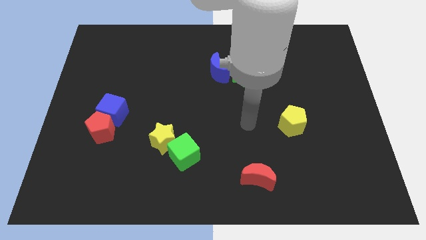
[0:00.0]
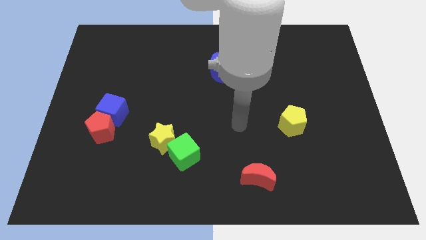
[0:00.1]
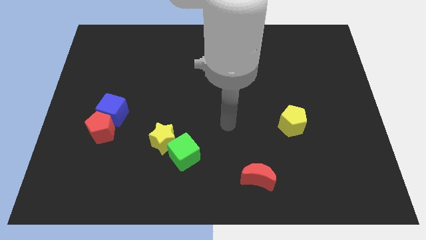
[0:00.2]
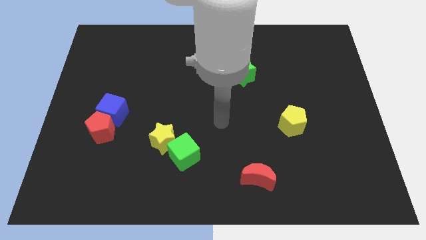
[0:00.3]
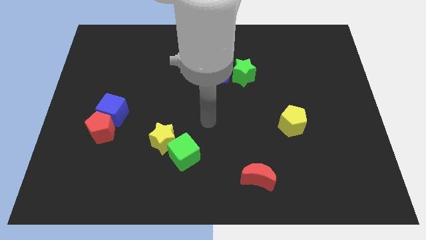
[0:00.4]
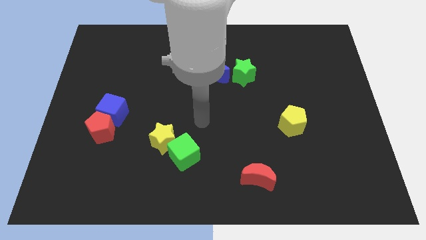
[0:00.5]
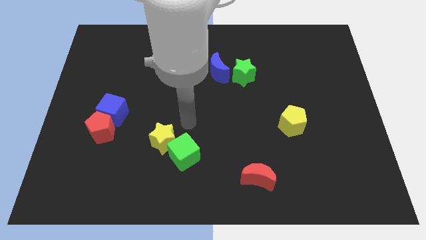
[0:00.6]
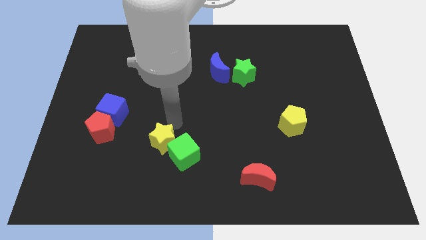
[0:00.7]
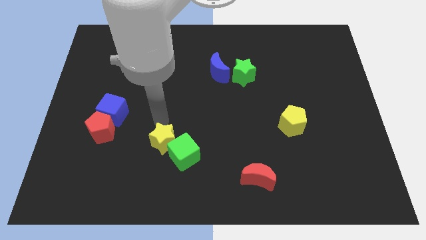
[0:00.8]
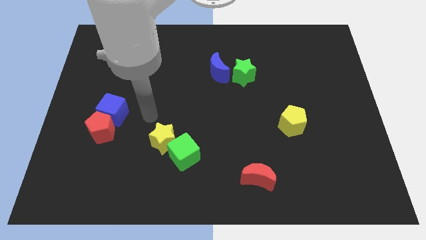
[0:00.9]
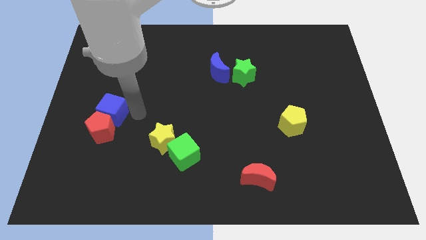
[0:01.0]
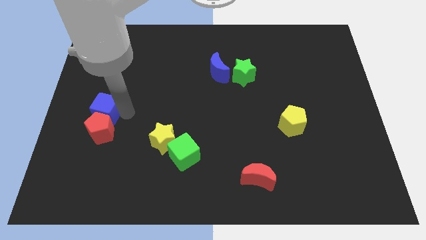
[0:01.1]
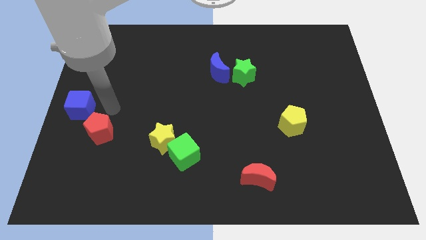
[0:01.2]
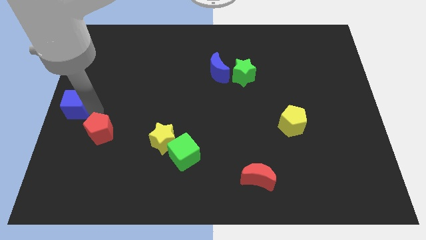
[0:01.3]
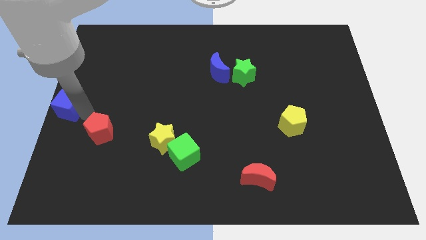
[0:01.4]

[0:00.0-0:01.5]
move the red pentagon away from the blue cube

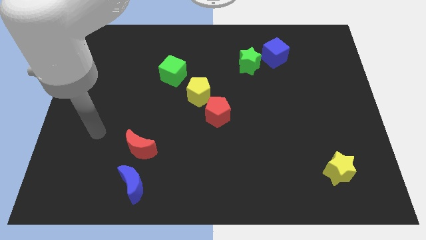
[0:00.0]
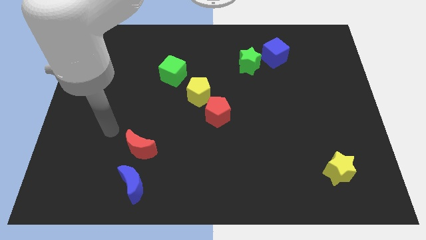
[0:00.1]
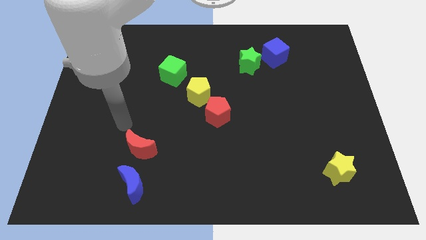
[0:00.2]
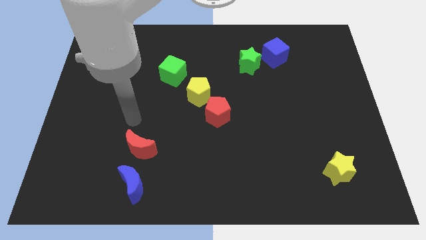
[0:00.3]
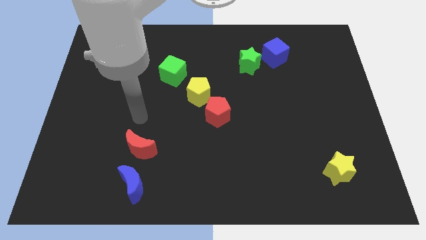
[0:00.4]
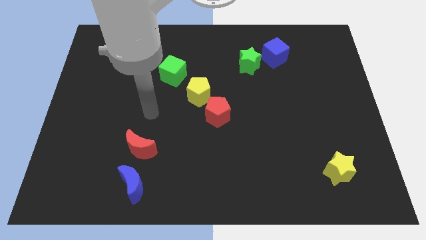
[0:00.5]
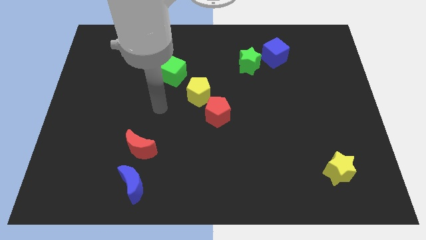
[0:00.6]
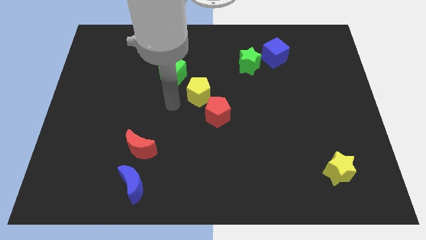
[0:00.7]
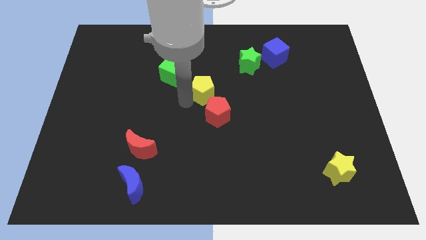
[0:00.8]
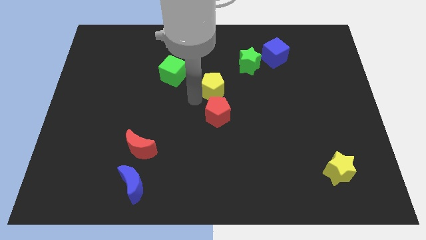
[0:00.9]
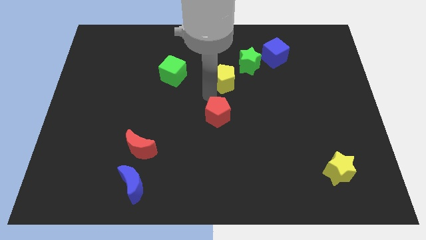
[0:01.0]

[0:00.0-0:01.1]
pull the red pentagon apart from the yellow pentagon

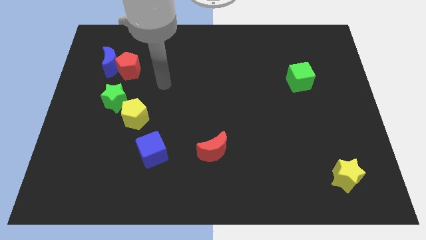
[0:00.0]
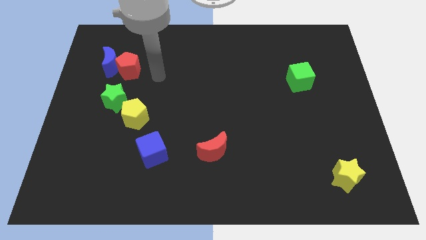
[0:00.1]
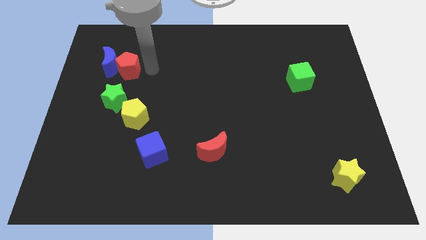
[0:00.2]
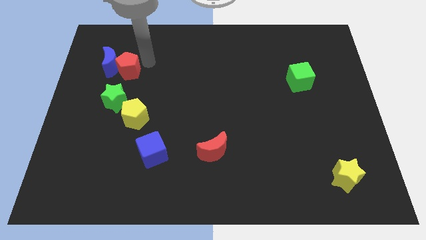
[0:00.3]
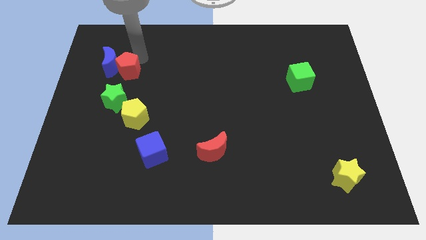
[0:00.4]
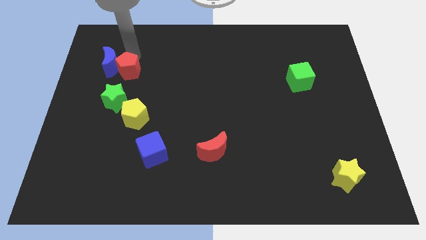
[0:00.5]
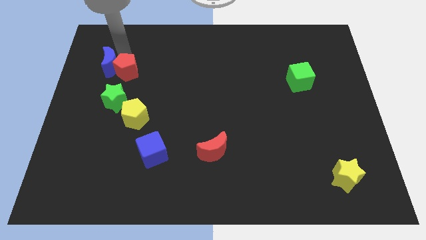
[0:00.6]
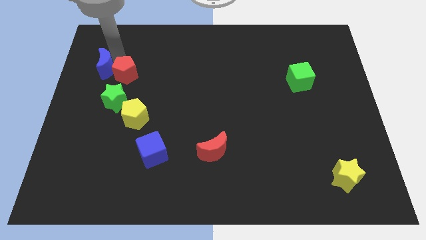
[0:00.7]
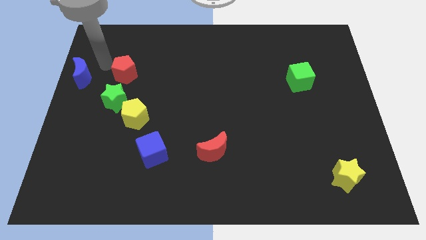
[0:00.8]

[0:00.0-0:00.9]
separate the red pentagon from the blue moon

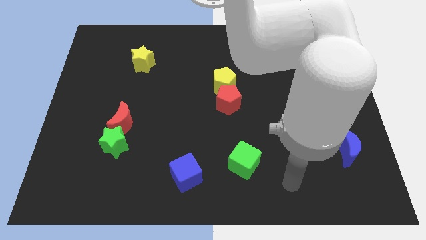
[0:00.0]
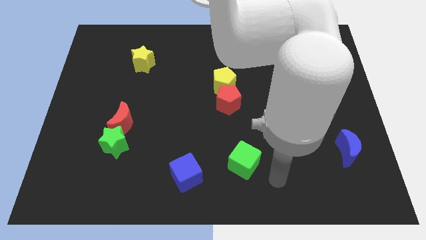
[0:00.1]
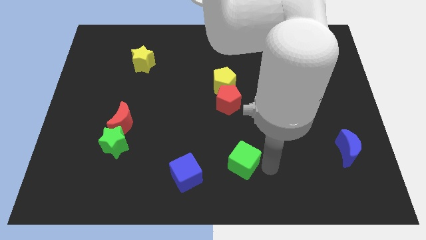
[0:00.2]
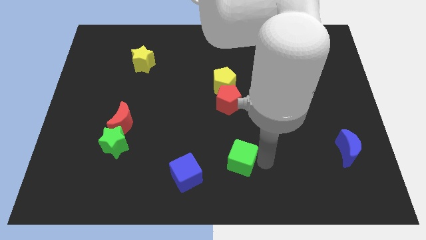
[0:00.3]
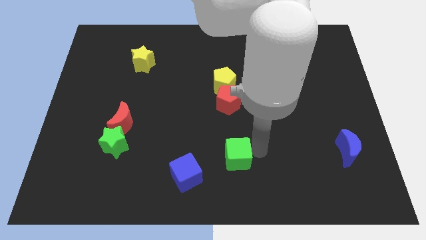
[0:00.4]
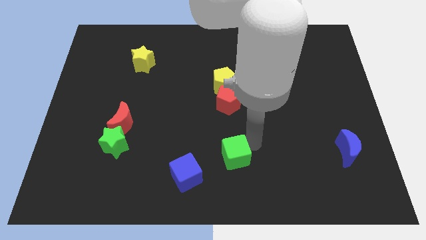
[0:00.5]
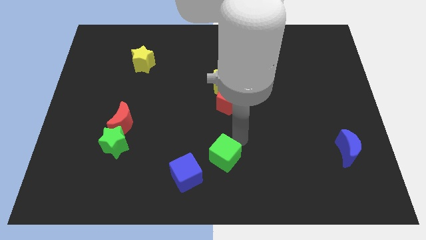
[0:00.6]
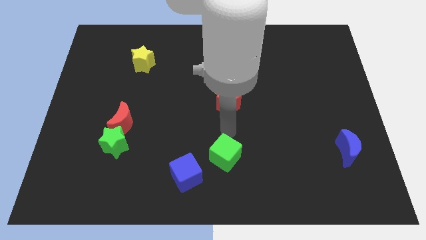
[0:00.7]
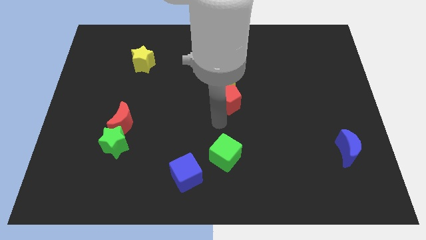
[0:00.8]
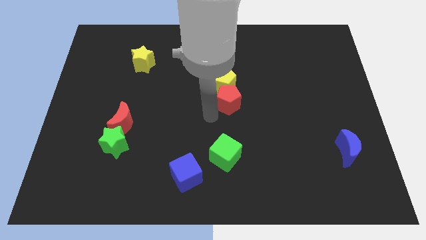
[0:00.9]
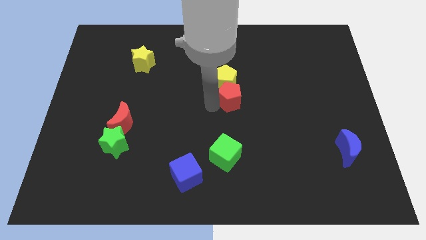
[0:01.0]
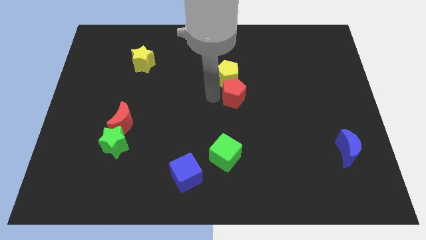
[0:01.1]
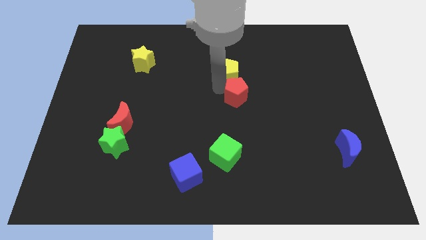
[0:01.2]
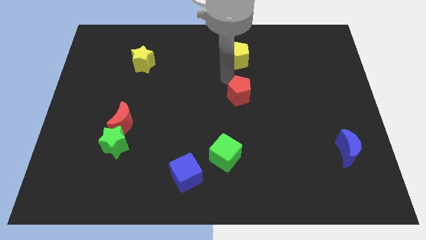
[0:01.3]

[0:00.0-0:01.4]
move the red pentagon away from the yellow pentagon

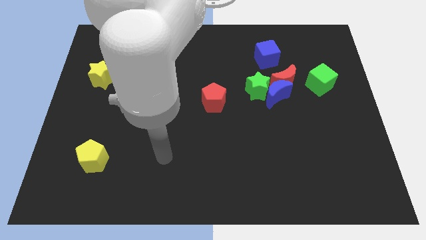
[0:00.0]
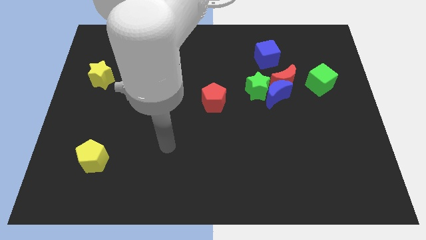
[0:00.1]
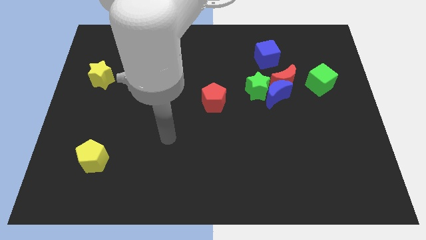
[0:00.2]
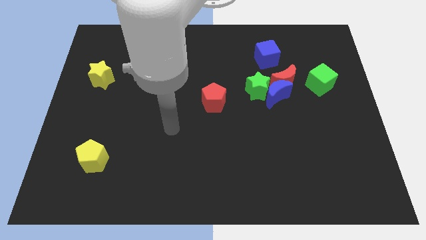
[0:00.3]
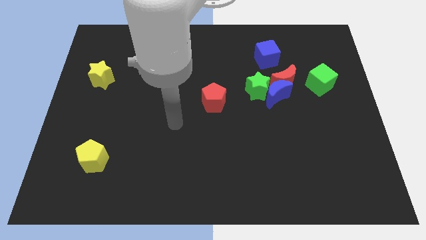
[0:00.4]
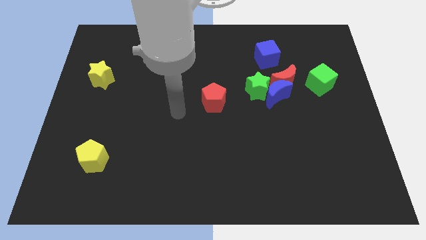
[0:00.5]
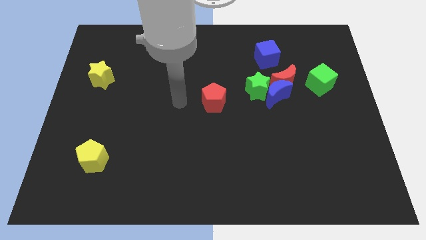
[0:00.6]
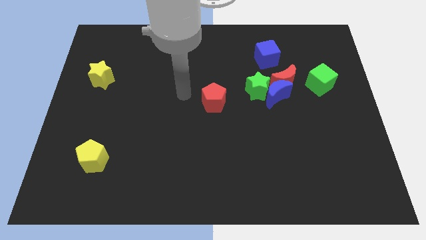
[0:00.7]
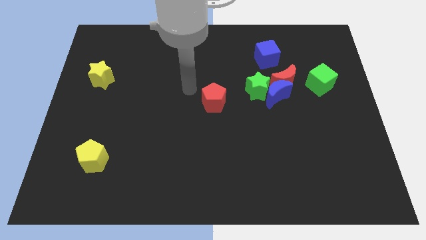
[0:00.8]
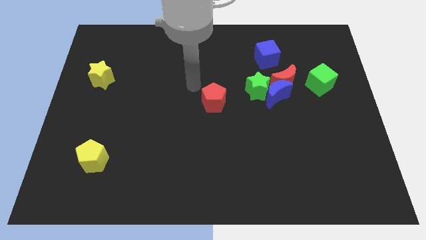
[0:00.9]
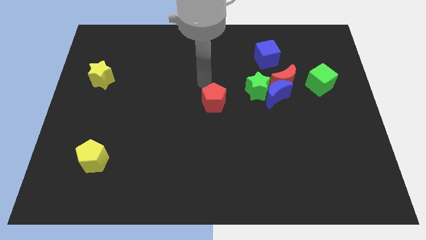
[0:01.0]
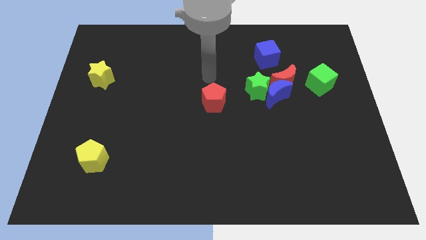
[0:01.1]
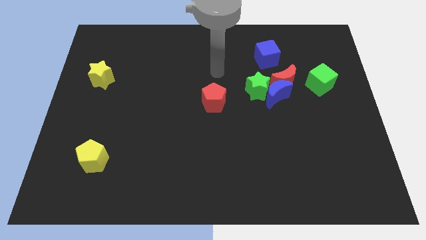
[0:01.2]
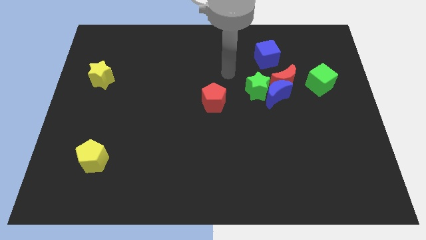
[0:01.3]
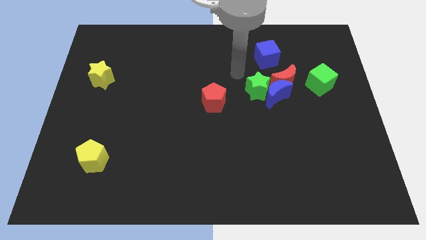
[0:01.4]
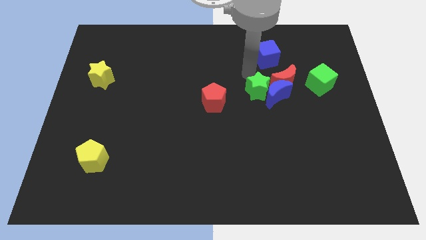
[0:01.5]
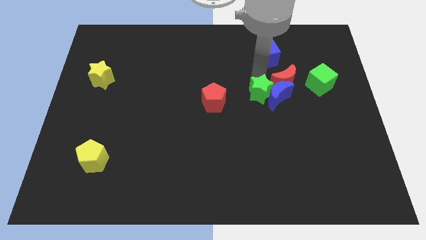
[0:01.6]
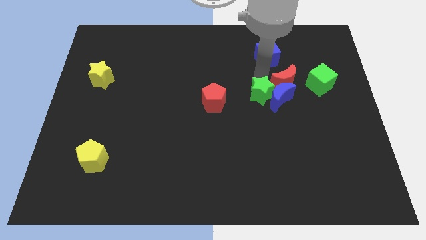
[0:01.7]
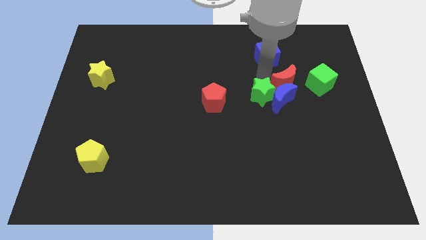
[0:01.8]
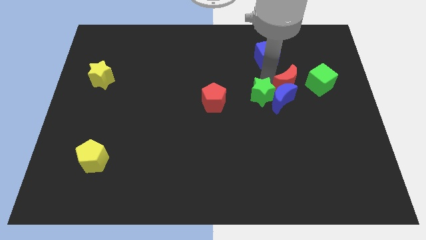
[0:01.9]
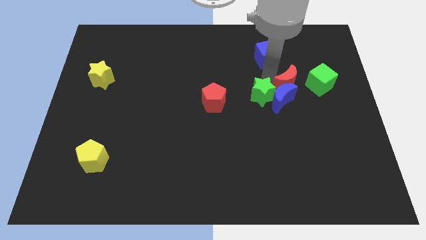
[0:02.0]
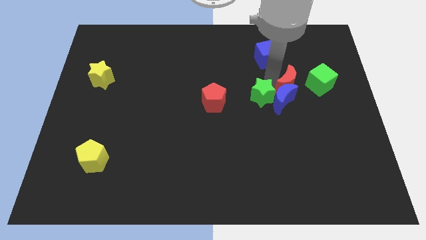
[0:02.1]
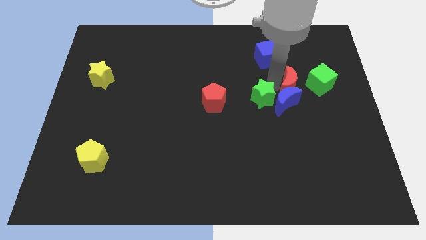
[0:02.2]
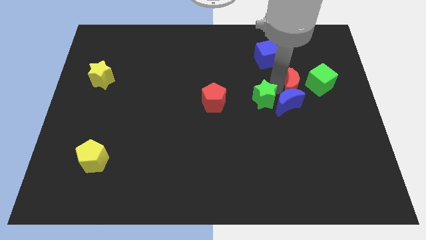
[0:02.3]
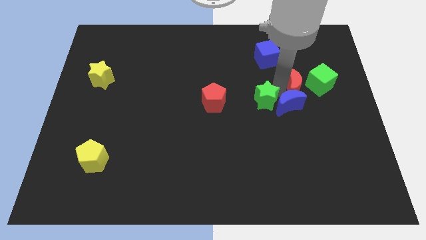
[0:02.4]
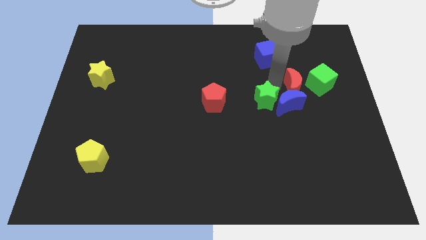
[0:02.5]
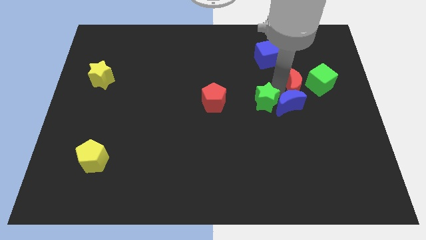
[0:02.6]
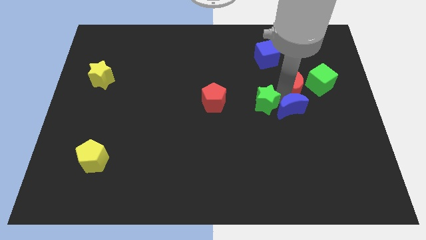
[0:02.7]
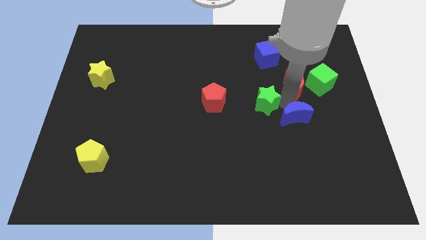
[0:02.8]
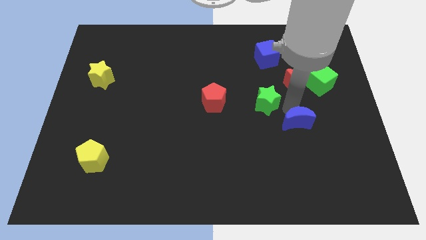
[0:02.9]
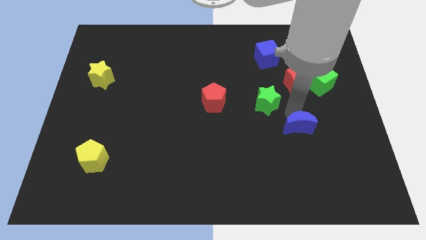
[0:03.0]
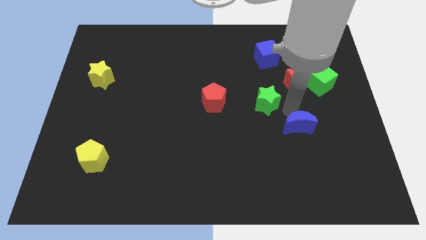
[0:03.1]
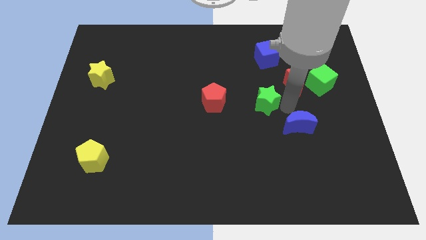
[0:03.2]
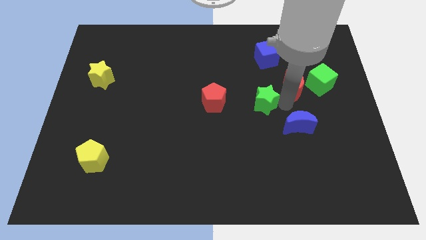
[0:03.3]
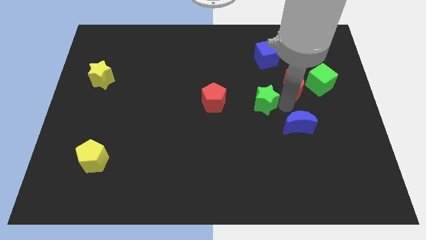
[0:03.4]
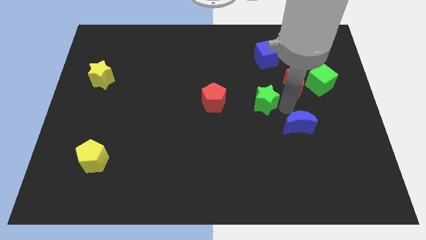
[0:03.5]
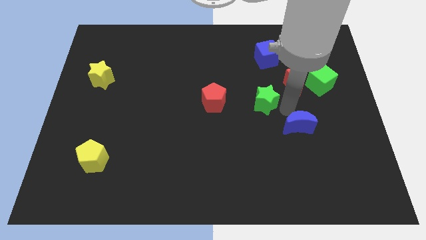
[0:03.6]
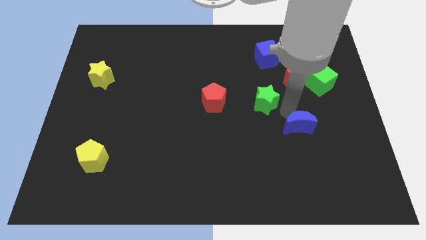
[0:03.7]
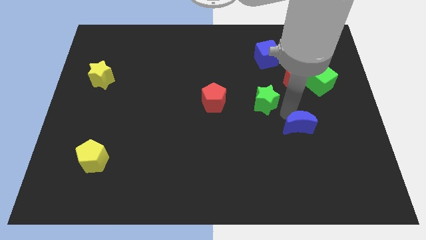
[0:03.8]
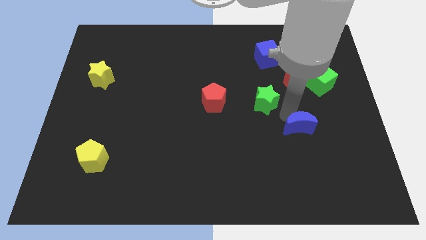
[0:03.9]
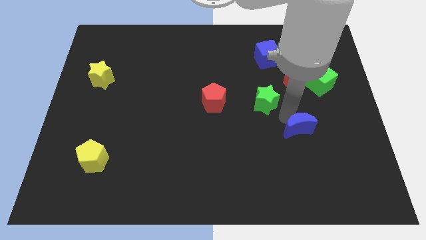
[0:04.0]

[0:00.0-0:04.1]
pull the blue moon apart from the red moon and green star

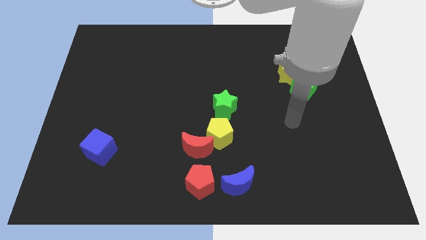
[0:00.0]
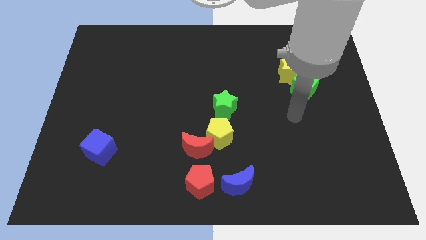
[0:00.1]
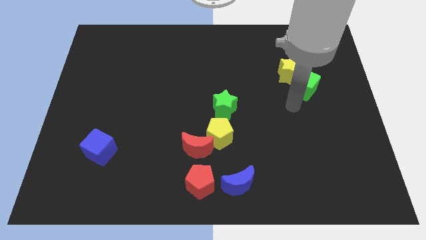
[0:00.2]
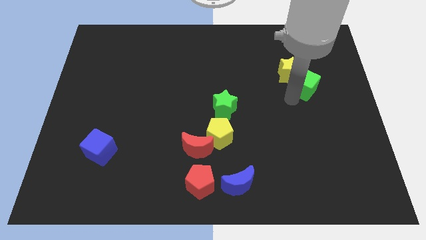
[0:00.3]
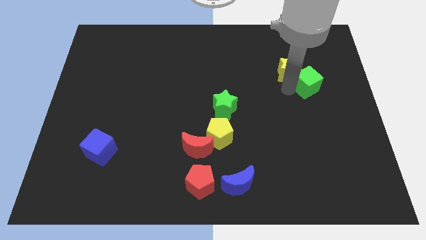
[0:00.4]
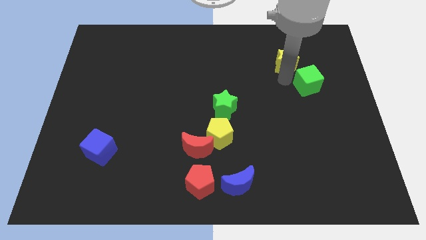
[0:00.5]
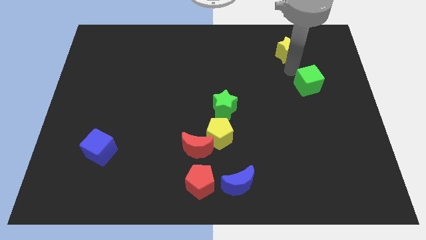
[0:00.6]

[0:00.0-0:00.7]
separate the green cube from the yellow star
